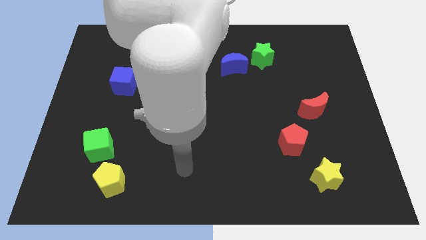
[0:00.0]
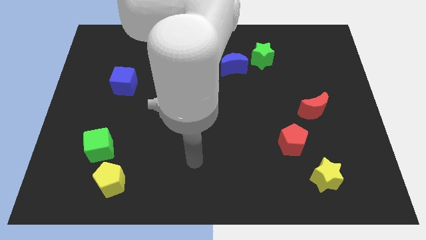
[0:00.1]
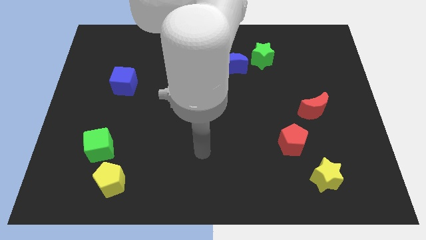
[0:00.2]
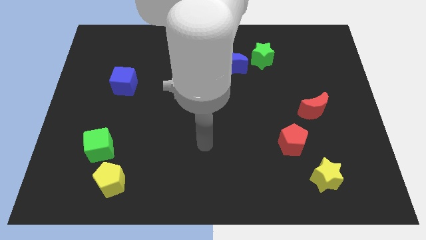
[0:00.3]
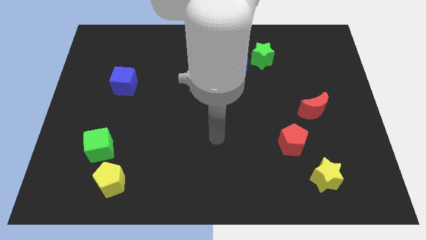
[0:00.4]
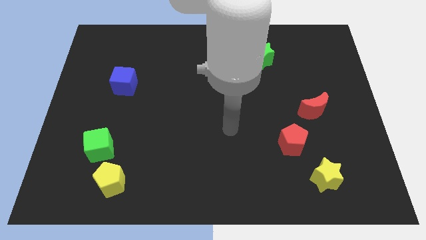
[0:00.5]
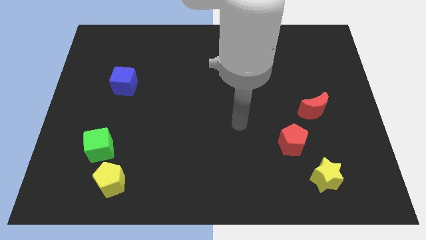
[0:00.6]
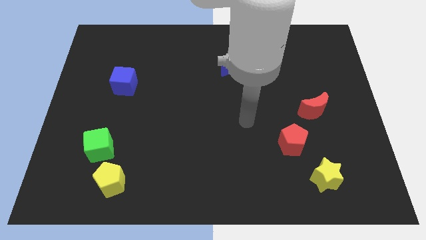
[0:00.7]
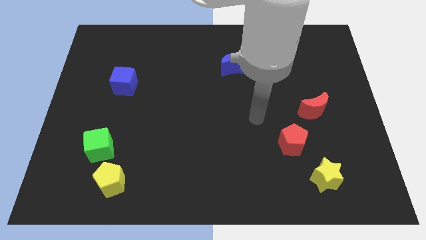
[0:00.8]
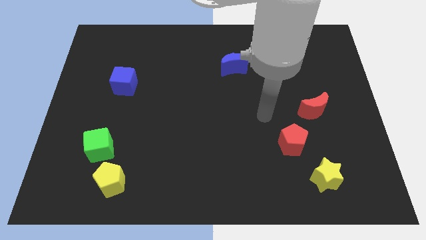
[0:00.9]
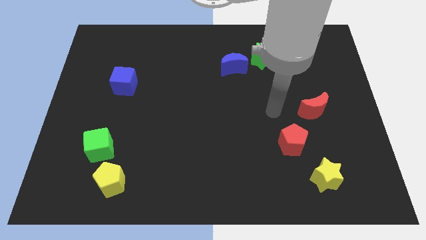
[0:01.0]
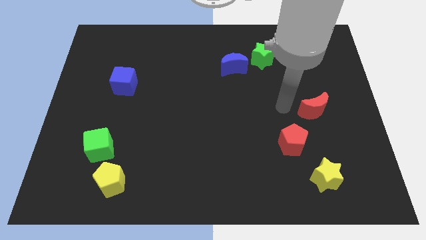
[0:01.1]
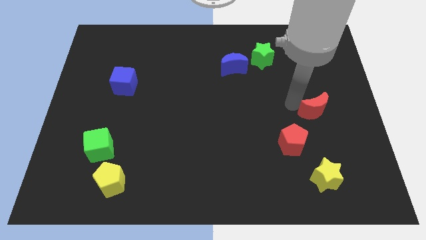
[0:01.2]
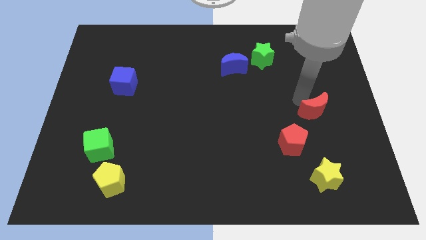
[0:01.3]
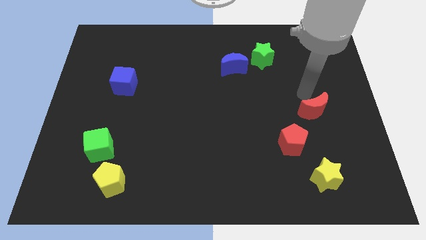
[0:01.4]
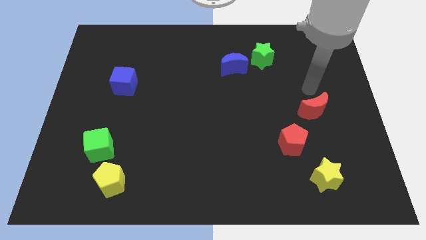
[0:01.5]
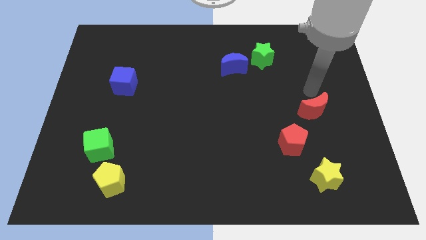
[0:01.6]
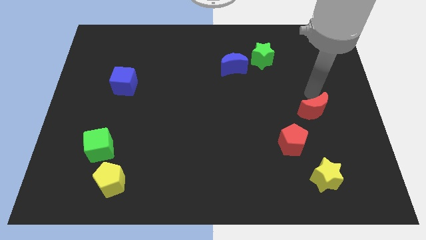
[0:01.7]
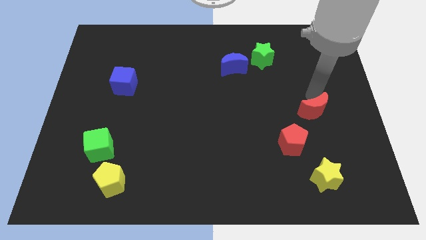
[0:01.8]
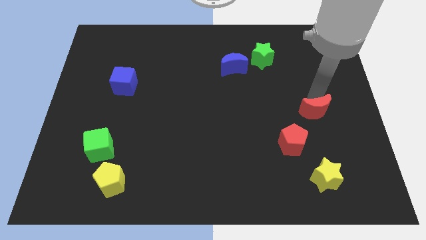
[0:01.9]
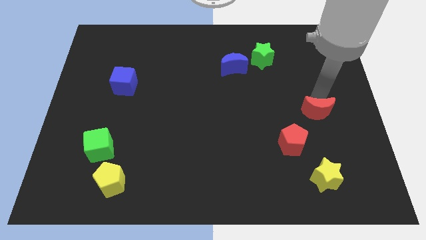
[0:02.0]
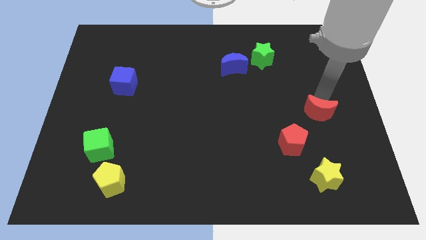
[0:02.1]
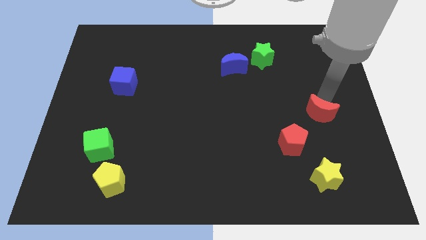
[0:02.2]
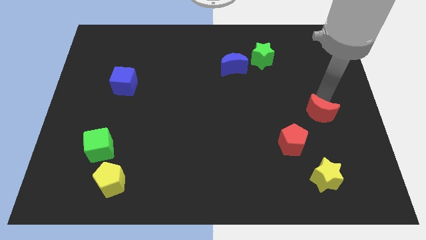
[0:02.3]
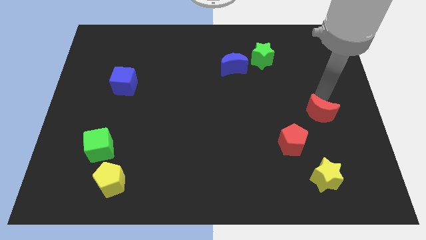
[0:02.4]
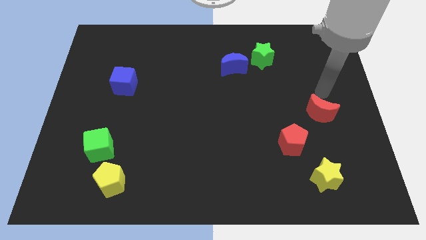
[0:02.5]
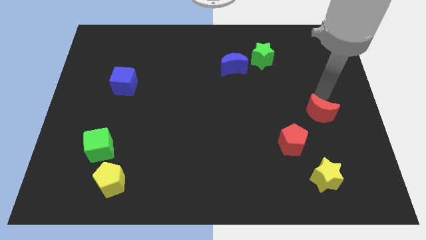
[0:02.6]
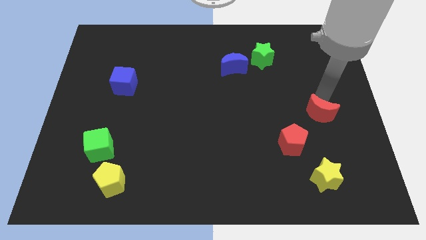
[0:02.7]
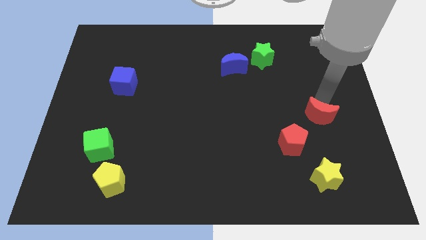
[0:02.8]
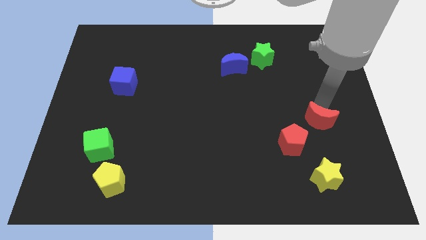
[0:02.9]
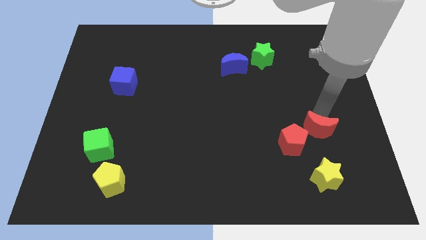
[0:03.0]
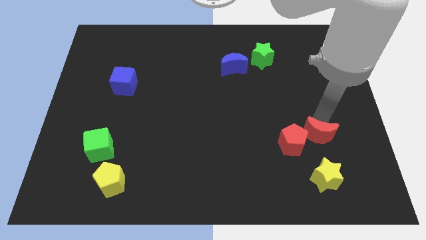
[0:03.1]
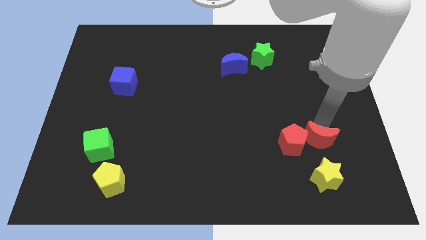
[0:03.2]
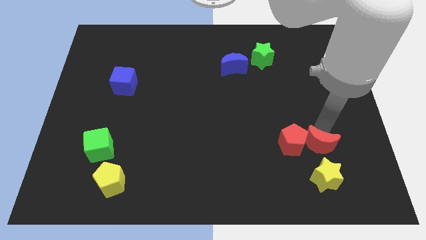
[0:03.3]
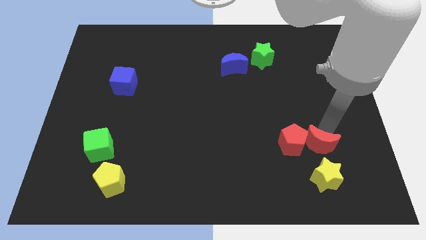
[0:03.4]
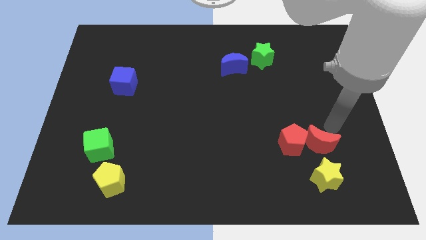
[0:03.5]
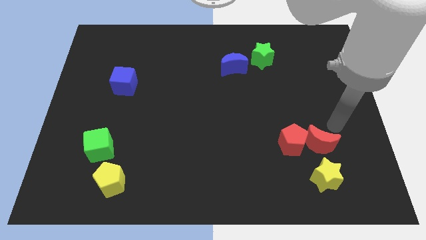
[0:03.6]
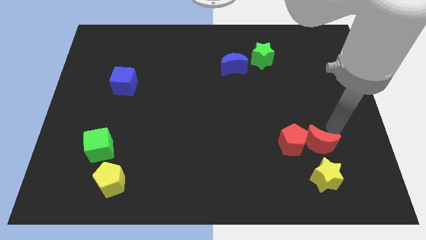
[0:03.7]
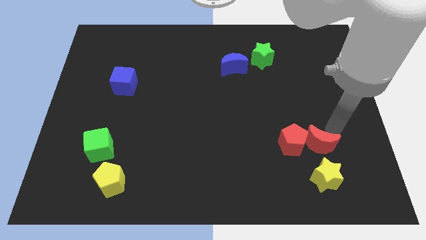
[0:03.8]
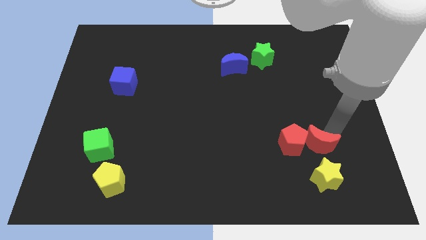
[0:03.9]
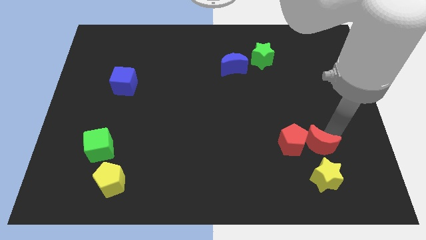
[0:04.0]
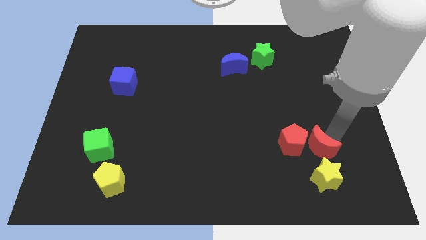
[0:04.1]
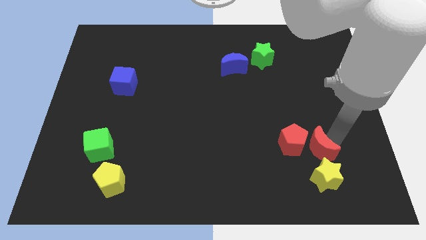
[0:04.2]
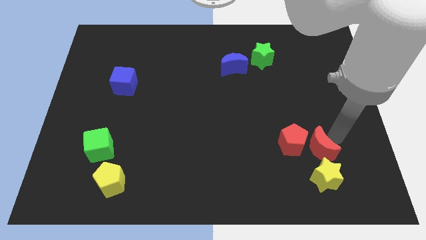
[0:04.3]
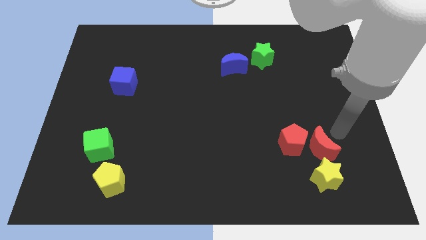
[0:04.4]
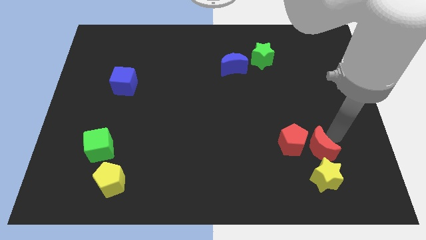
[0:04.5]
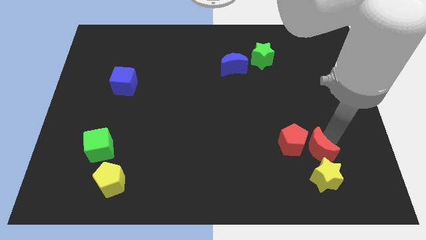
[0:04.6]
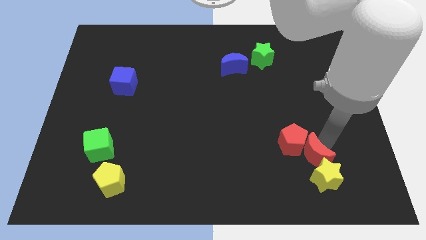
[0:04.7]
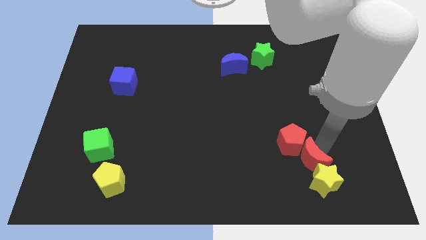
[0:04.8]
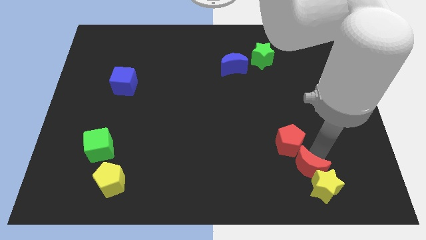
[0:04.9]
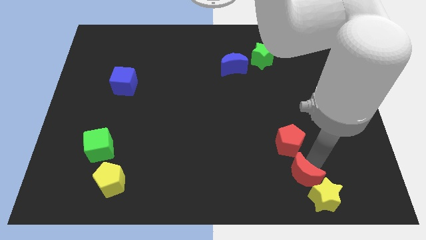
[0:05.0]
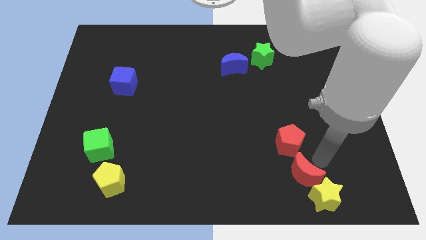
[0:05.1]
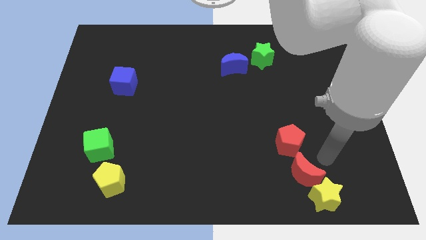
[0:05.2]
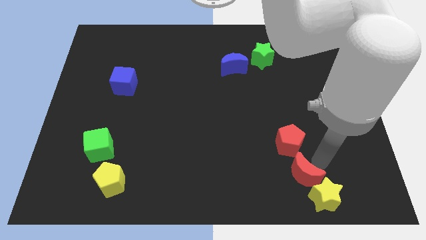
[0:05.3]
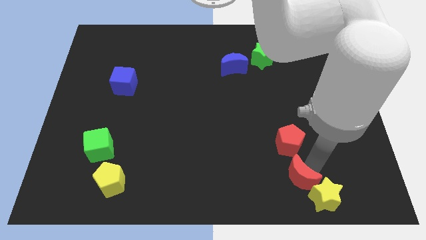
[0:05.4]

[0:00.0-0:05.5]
move the red moon just left of the yellow star

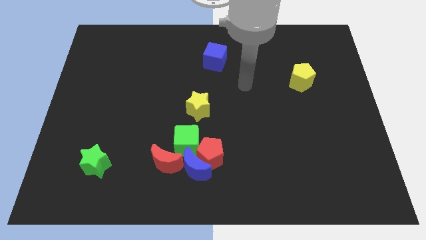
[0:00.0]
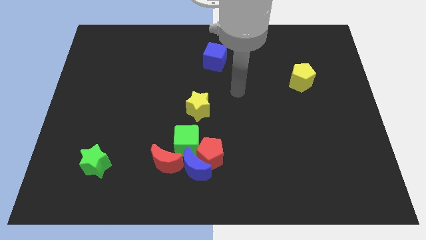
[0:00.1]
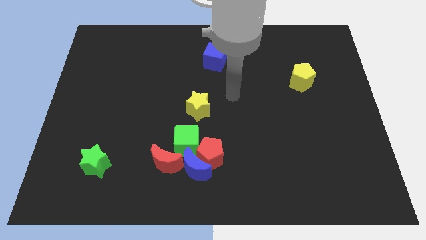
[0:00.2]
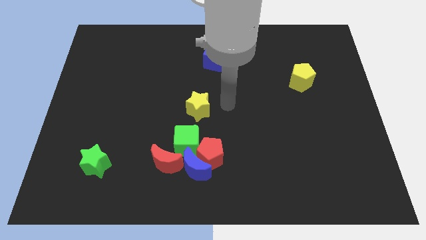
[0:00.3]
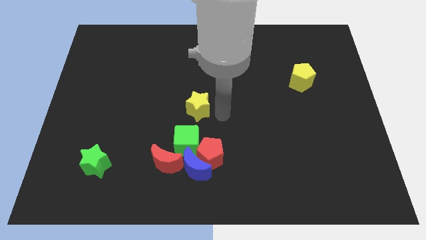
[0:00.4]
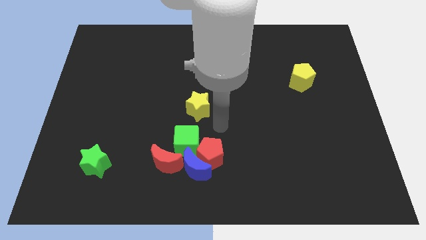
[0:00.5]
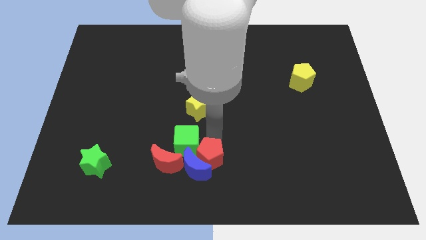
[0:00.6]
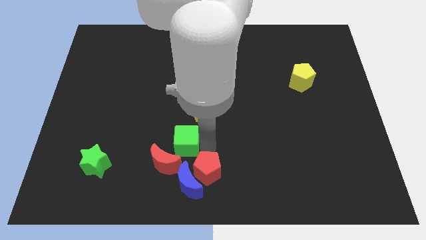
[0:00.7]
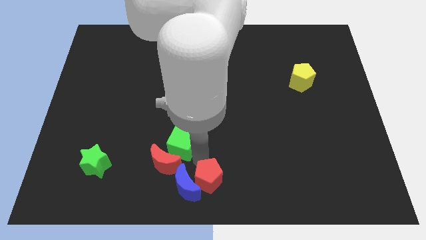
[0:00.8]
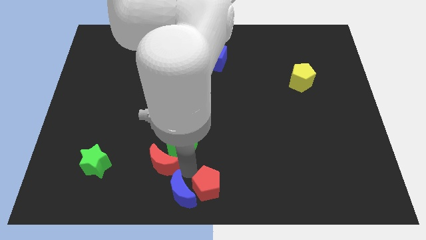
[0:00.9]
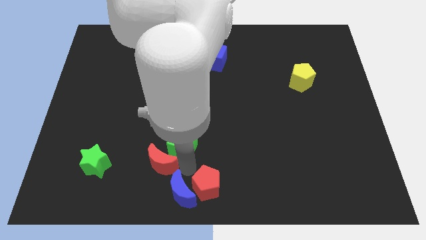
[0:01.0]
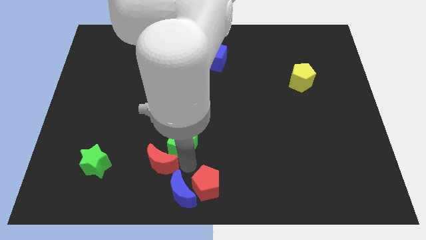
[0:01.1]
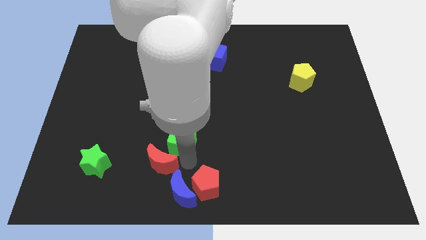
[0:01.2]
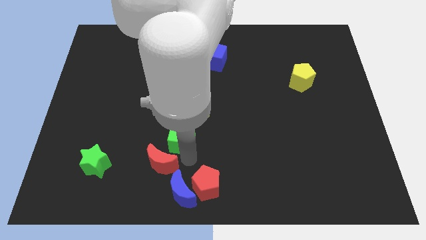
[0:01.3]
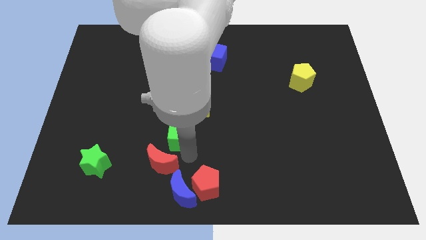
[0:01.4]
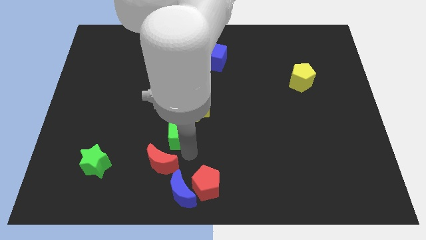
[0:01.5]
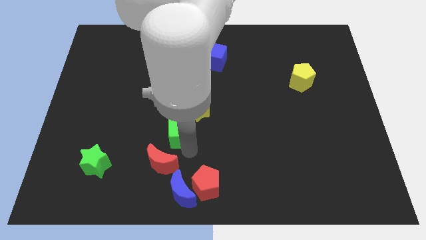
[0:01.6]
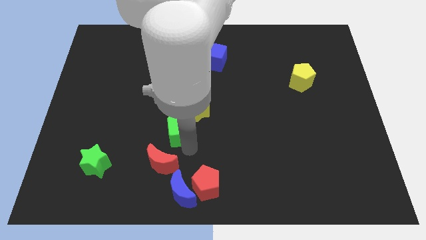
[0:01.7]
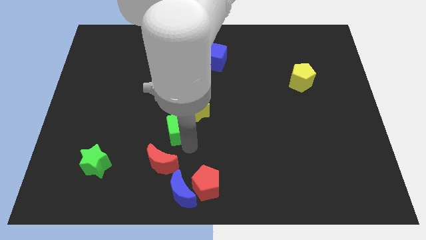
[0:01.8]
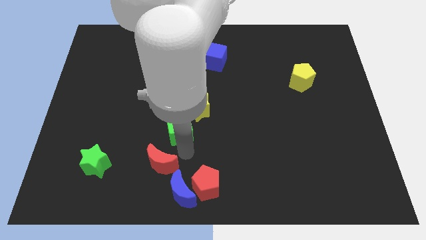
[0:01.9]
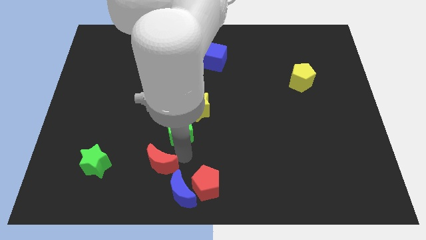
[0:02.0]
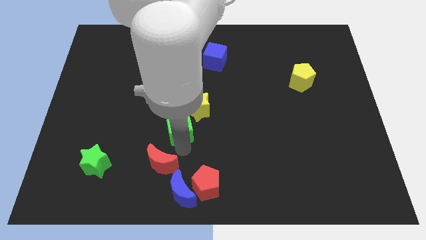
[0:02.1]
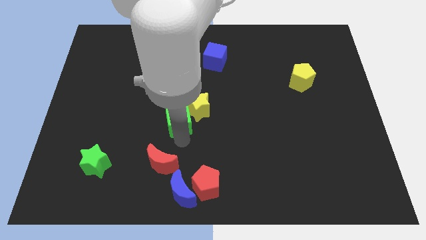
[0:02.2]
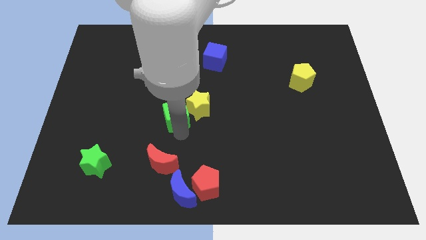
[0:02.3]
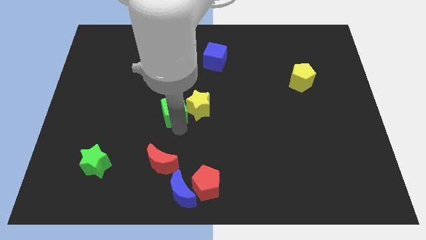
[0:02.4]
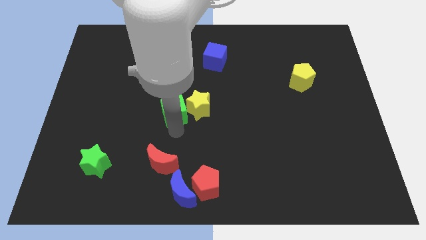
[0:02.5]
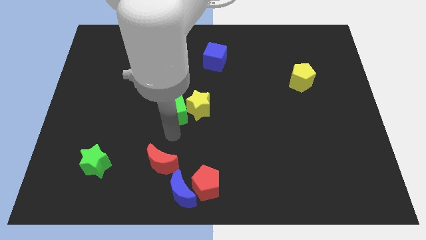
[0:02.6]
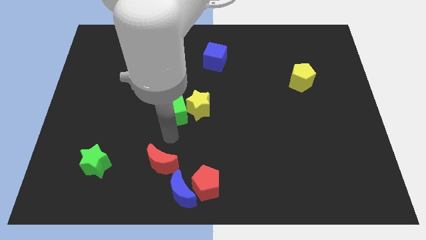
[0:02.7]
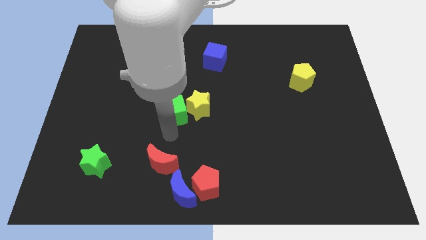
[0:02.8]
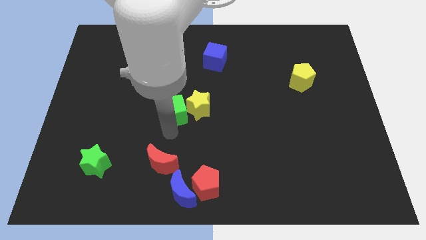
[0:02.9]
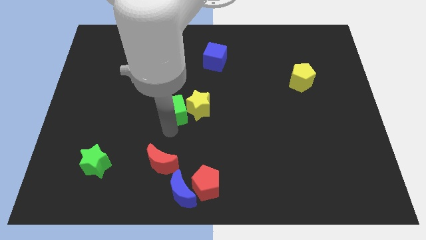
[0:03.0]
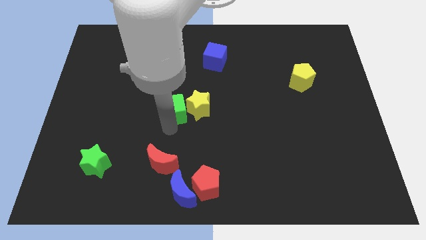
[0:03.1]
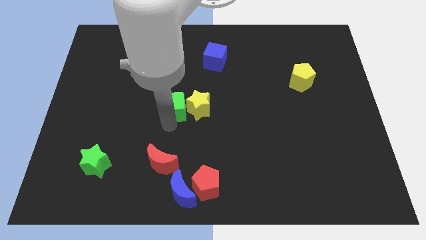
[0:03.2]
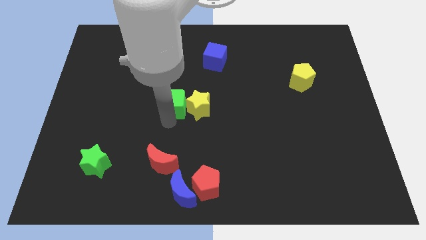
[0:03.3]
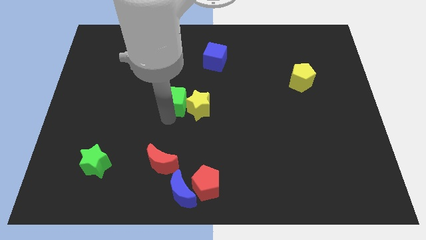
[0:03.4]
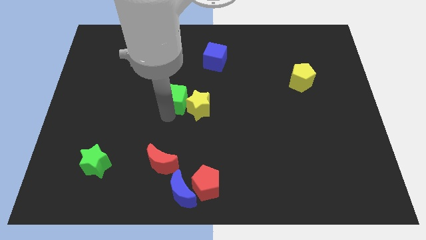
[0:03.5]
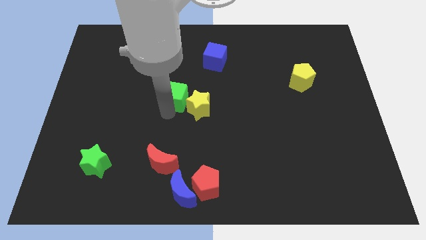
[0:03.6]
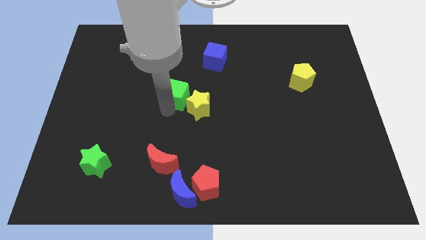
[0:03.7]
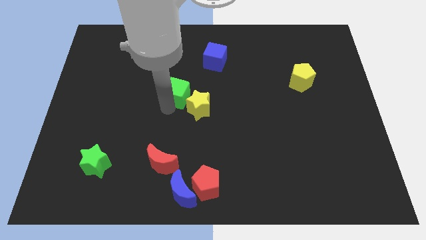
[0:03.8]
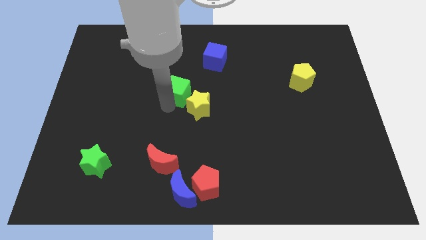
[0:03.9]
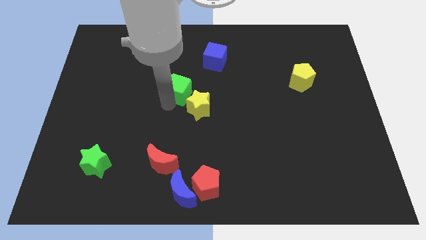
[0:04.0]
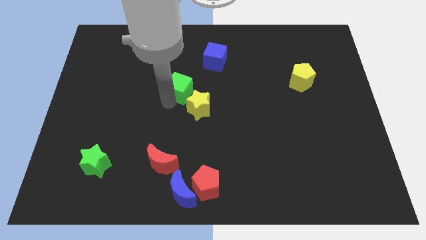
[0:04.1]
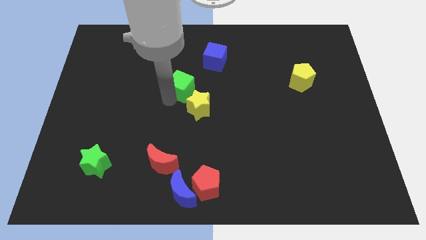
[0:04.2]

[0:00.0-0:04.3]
push the green cube to the bottom left of the blue cube
